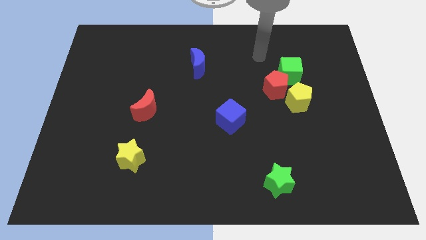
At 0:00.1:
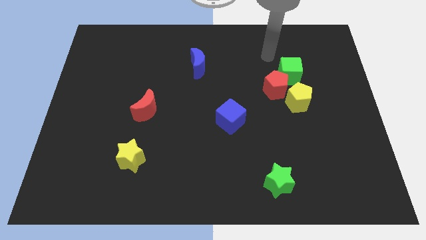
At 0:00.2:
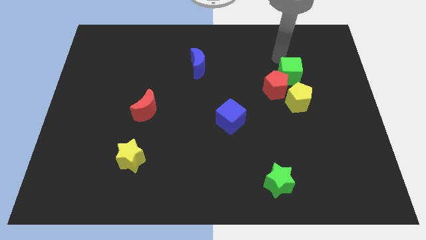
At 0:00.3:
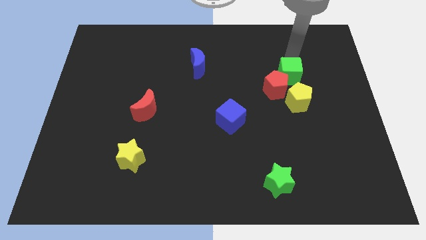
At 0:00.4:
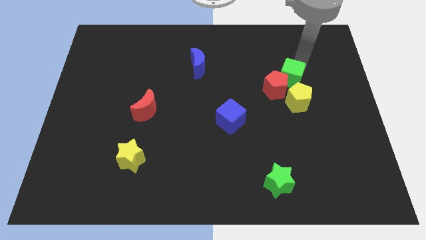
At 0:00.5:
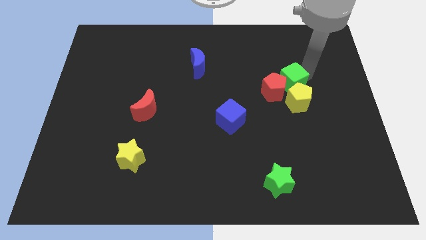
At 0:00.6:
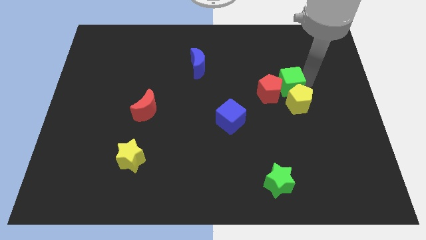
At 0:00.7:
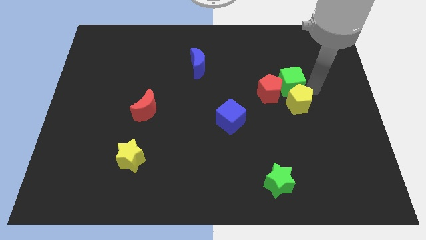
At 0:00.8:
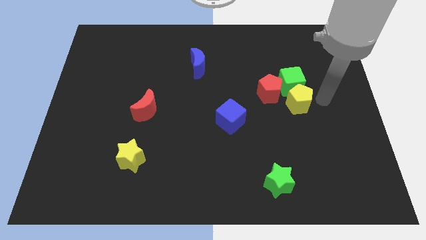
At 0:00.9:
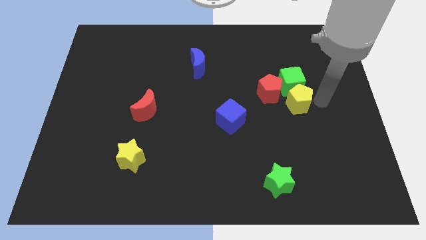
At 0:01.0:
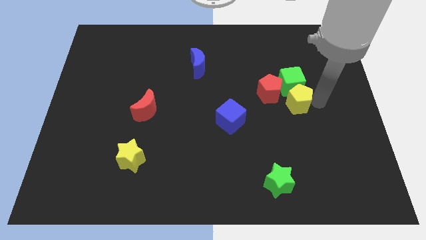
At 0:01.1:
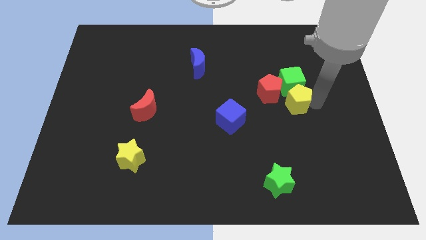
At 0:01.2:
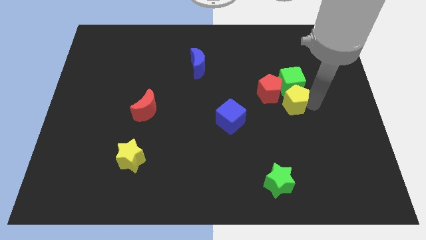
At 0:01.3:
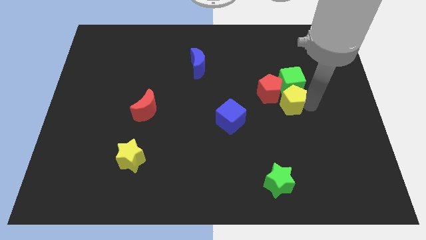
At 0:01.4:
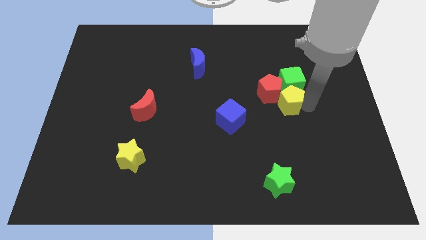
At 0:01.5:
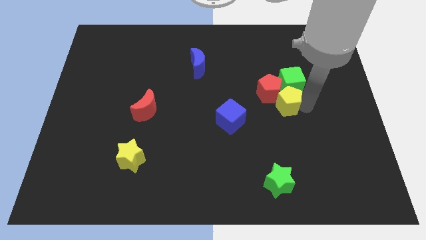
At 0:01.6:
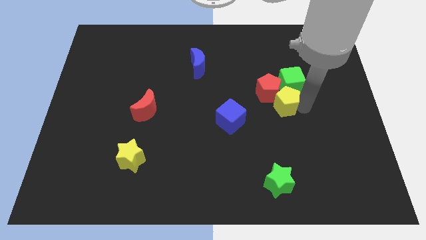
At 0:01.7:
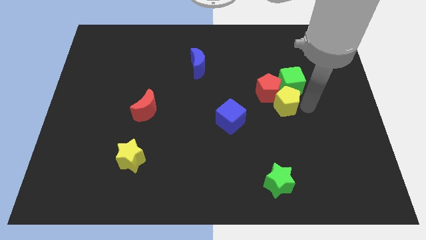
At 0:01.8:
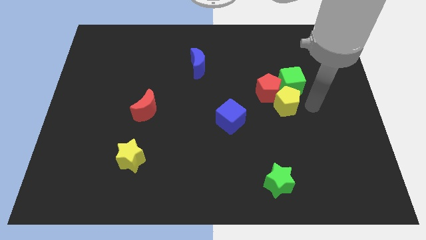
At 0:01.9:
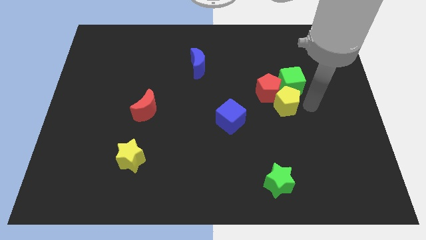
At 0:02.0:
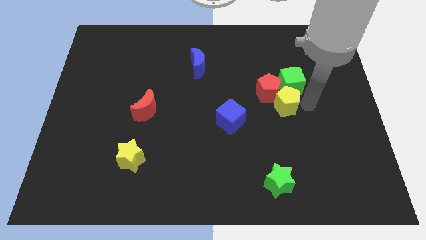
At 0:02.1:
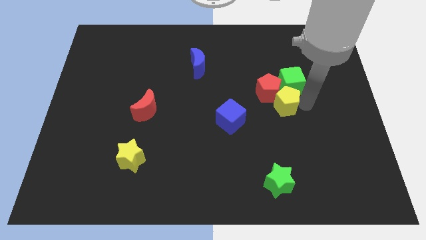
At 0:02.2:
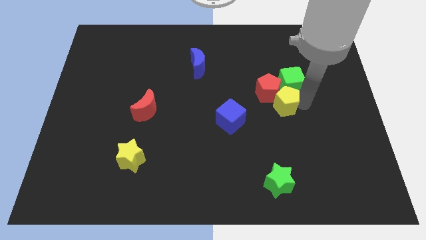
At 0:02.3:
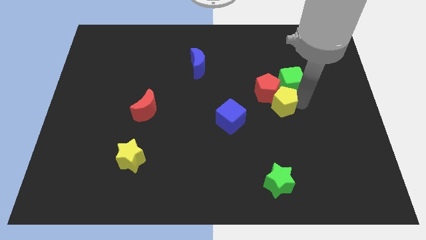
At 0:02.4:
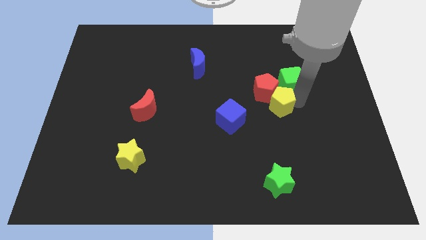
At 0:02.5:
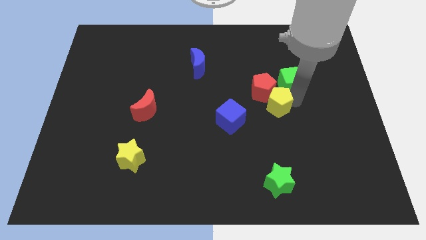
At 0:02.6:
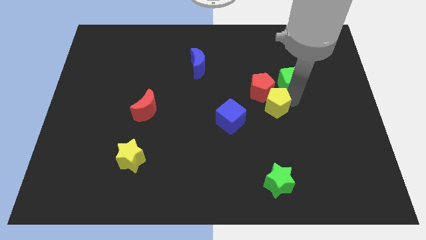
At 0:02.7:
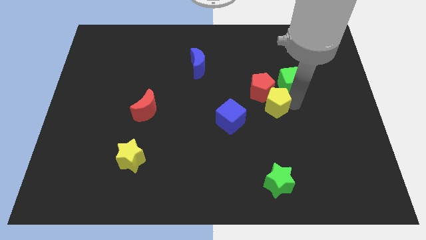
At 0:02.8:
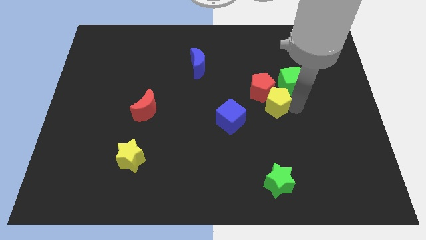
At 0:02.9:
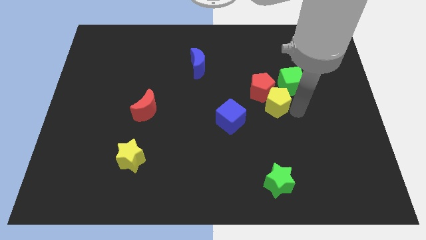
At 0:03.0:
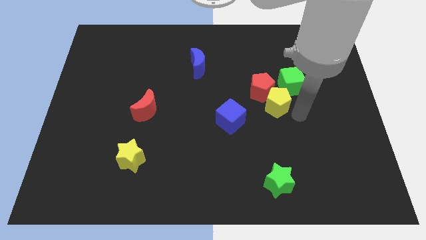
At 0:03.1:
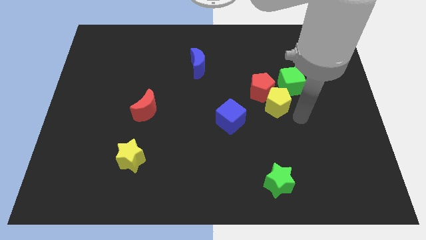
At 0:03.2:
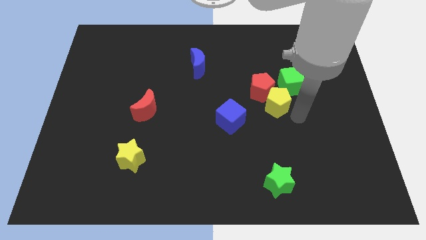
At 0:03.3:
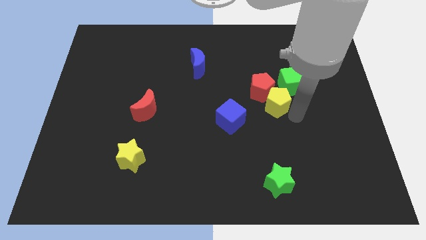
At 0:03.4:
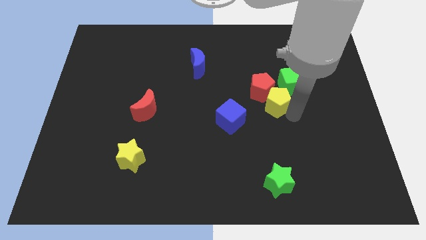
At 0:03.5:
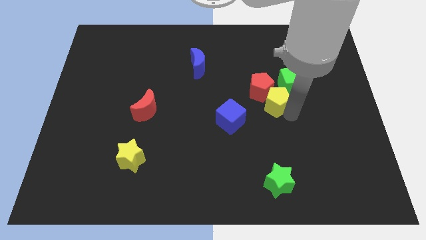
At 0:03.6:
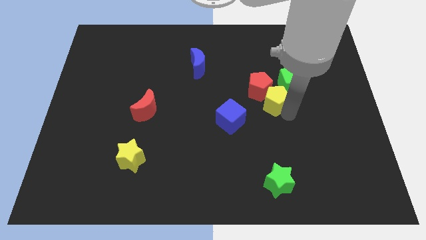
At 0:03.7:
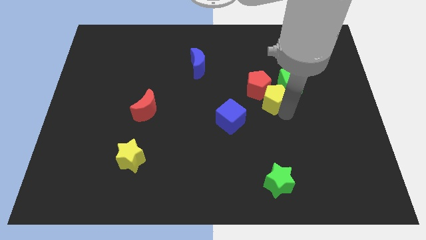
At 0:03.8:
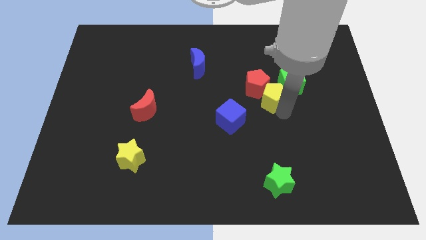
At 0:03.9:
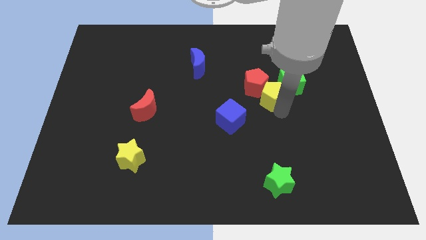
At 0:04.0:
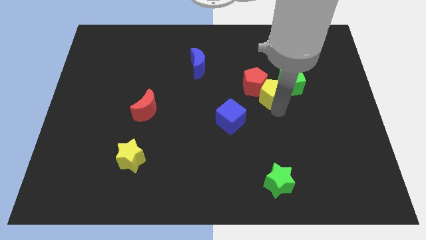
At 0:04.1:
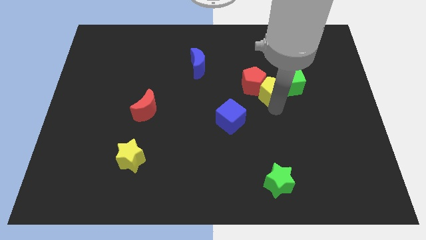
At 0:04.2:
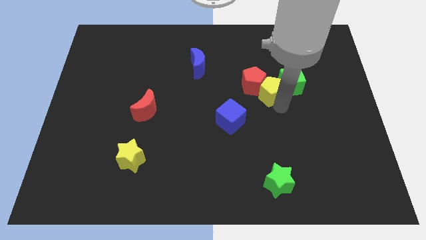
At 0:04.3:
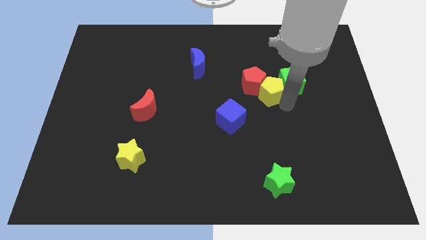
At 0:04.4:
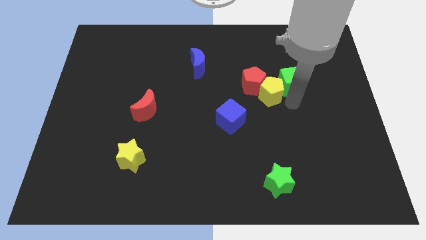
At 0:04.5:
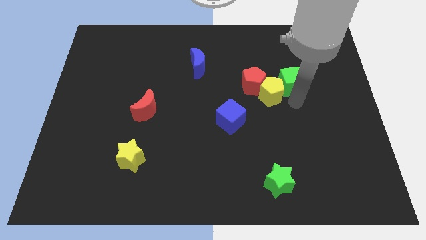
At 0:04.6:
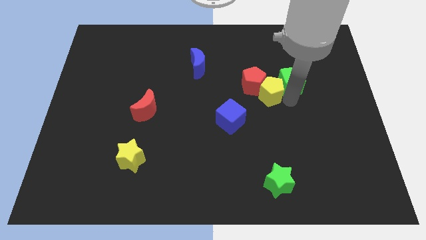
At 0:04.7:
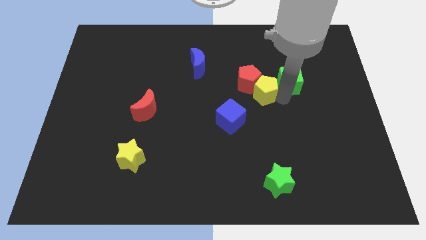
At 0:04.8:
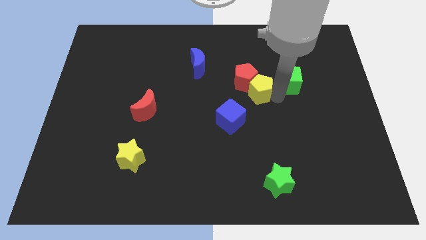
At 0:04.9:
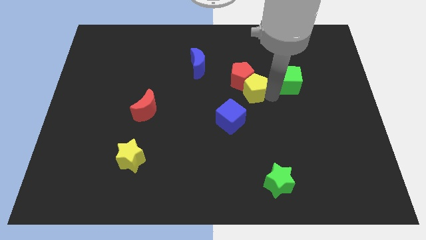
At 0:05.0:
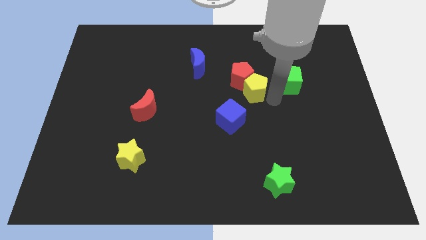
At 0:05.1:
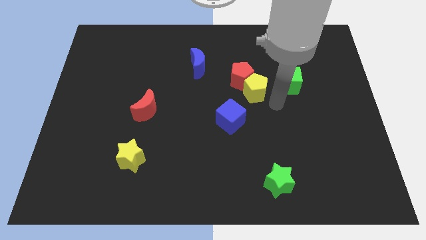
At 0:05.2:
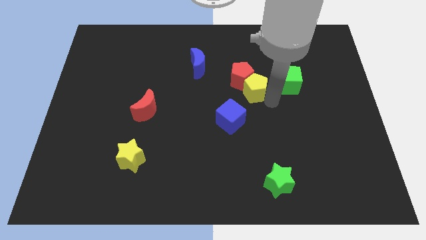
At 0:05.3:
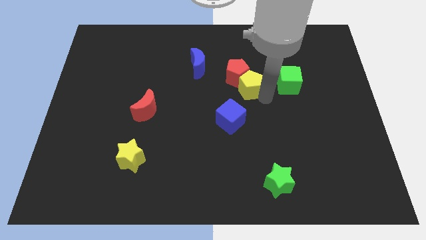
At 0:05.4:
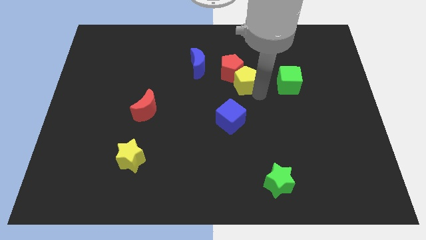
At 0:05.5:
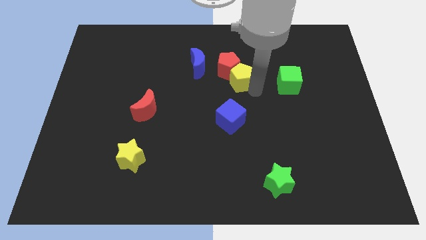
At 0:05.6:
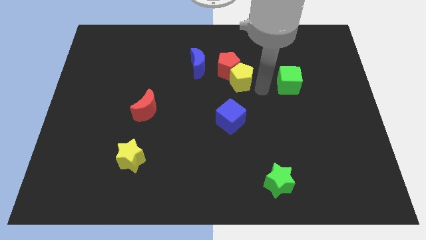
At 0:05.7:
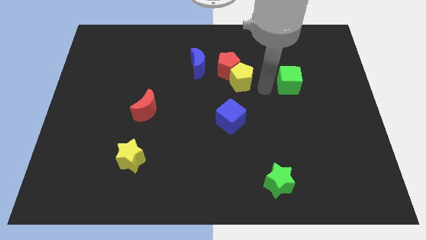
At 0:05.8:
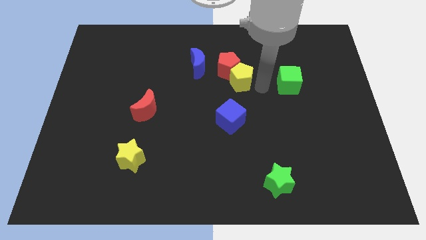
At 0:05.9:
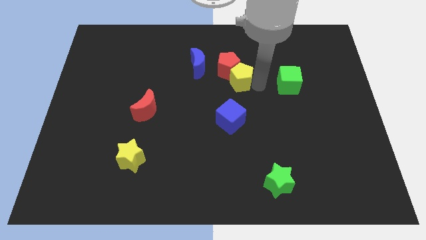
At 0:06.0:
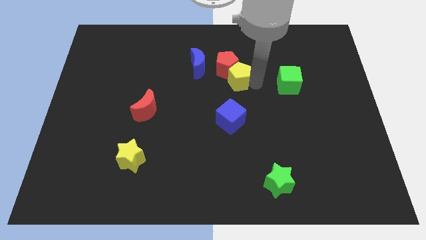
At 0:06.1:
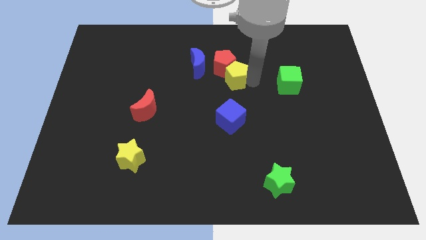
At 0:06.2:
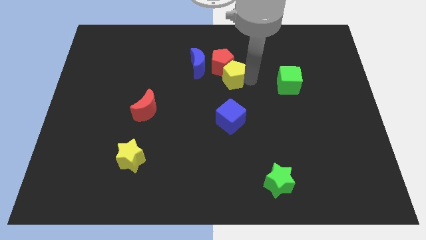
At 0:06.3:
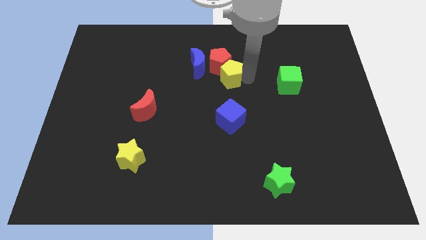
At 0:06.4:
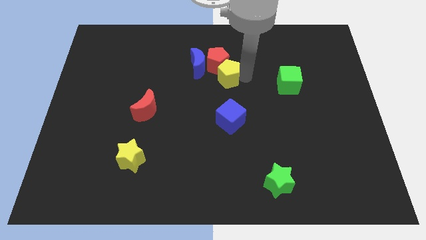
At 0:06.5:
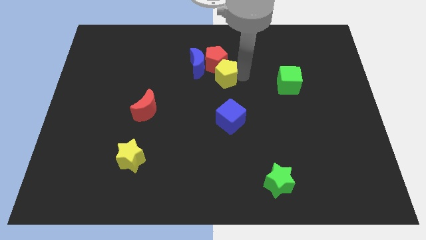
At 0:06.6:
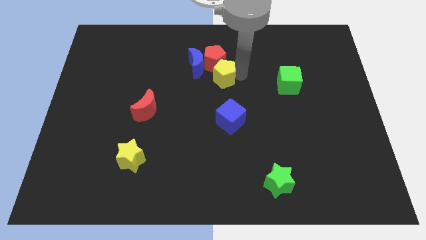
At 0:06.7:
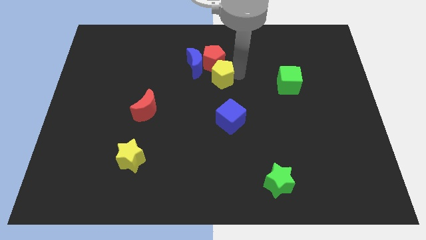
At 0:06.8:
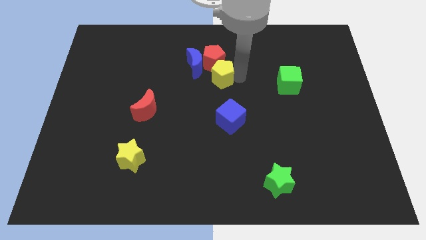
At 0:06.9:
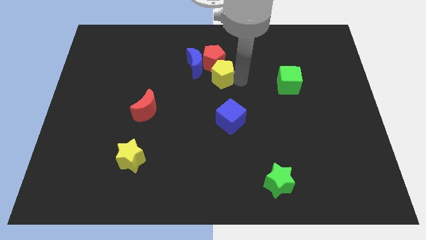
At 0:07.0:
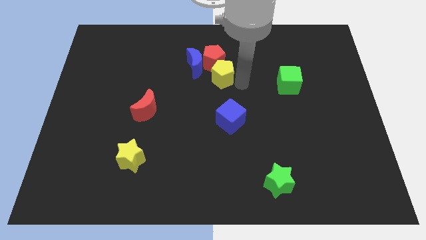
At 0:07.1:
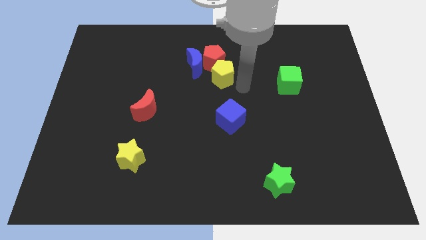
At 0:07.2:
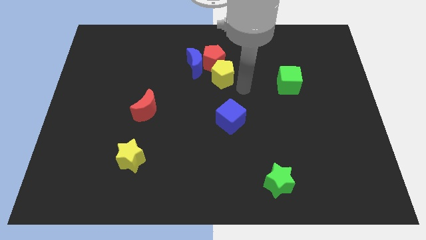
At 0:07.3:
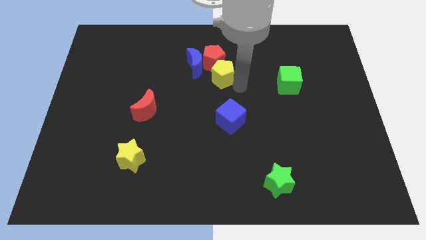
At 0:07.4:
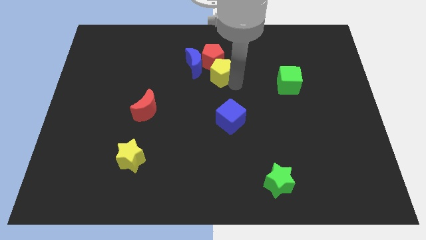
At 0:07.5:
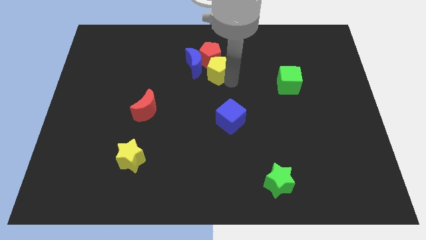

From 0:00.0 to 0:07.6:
slide the yellow pentagon to the blue moon
